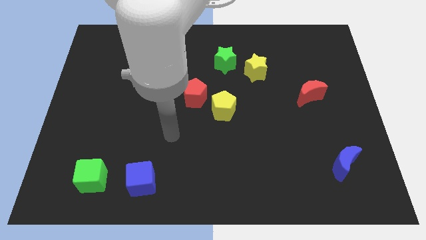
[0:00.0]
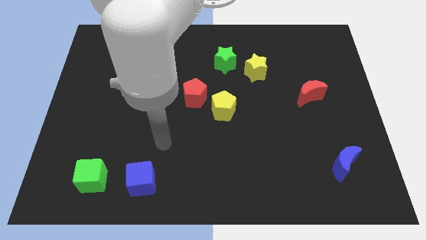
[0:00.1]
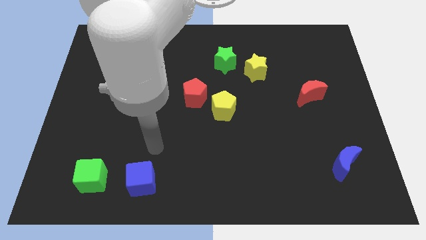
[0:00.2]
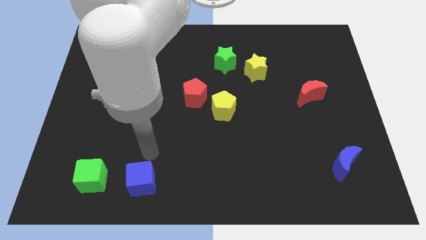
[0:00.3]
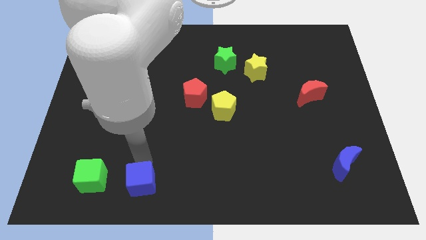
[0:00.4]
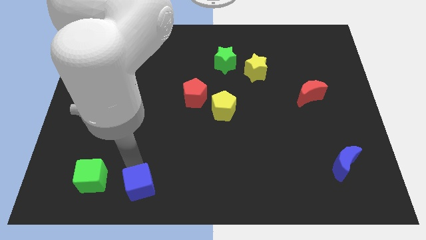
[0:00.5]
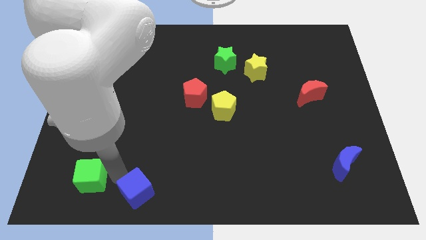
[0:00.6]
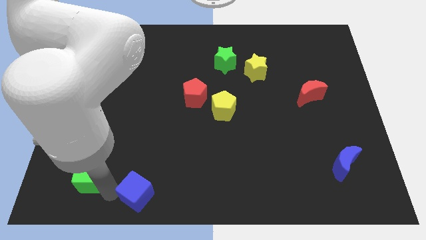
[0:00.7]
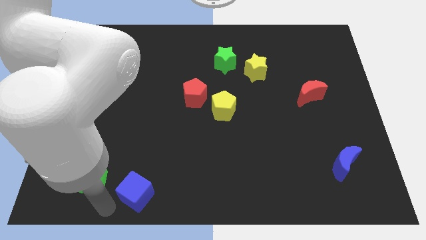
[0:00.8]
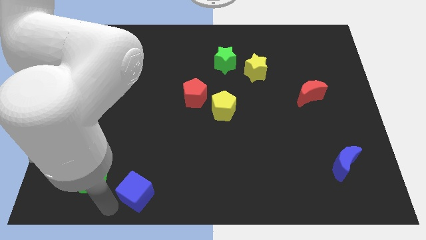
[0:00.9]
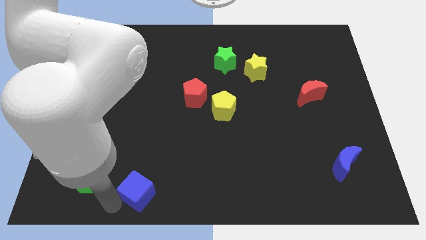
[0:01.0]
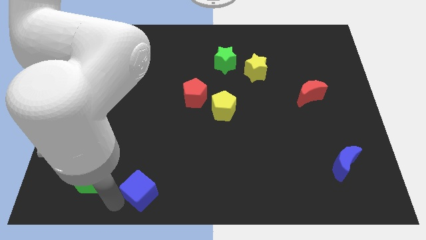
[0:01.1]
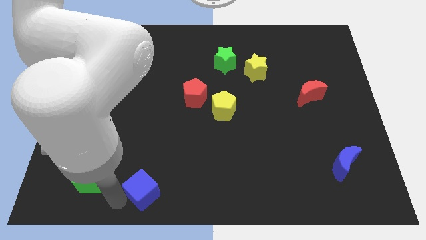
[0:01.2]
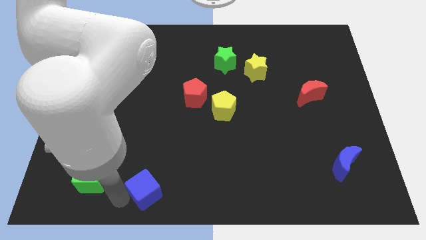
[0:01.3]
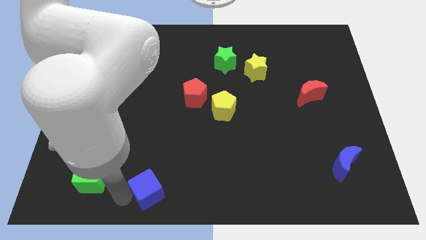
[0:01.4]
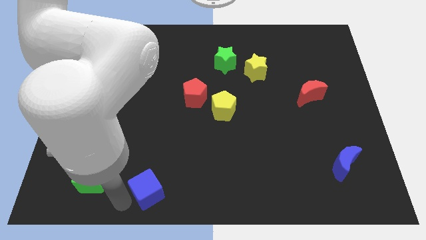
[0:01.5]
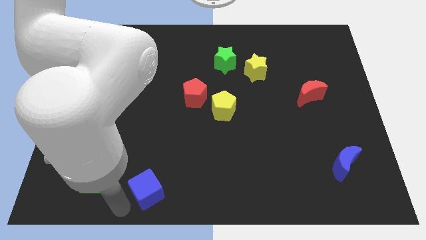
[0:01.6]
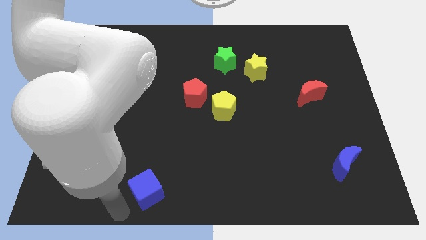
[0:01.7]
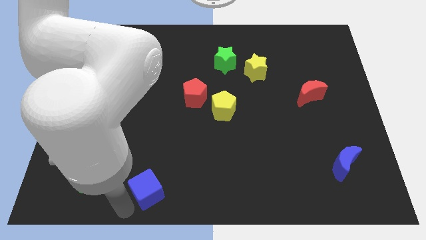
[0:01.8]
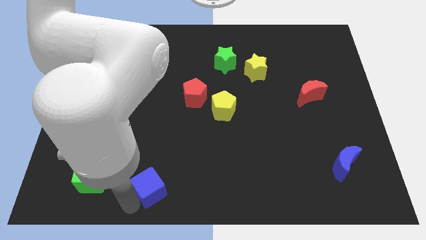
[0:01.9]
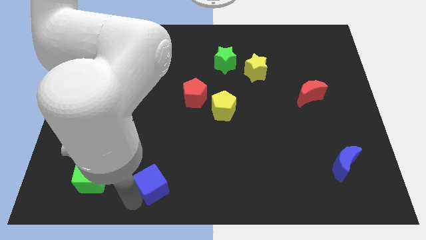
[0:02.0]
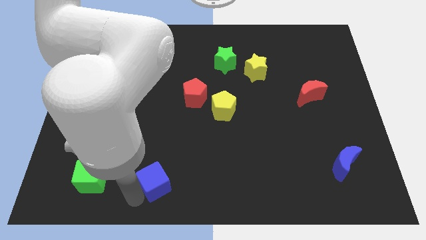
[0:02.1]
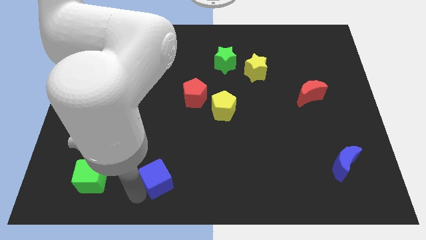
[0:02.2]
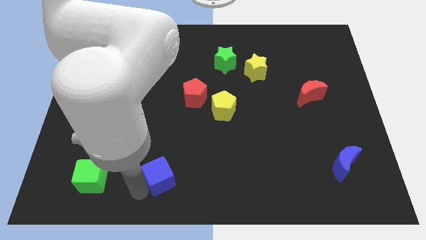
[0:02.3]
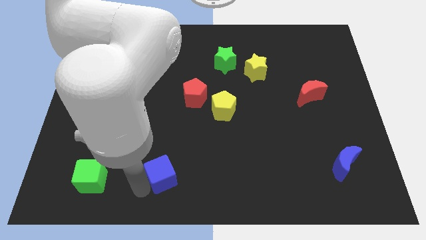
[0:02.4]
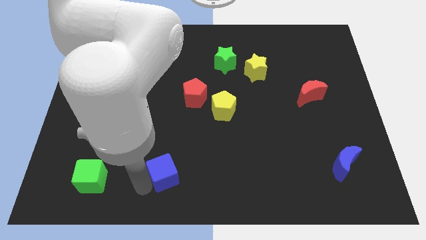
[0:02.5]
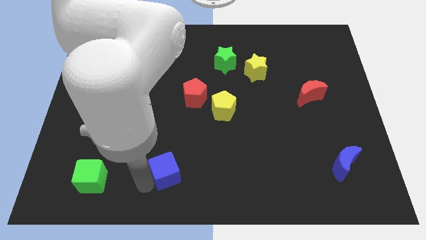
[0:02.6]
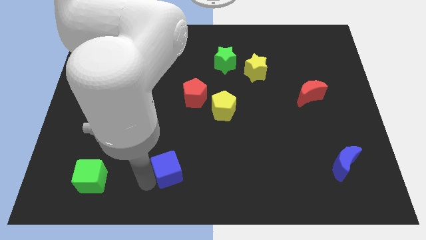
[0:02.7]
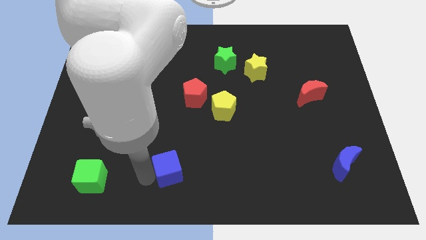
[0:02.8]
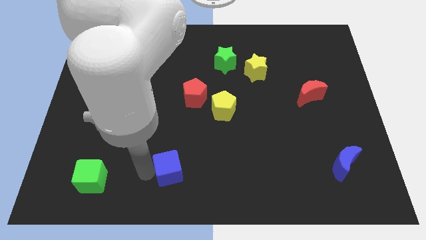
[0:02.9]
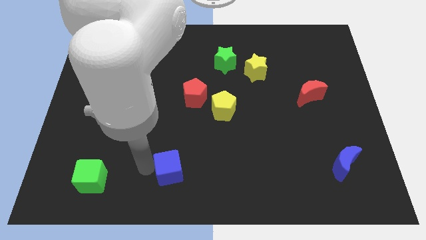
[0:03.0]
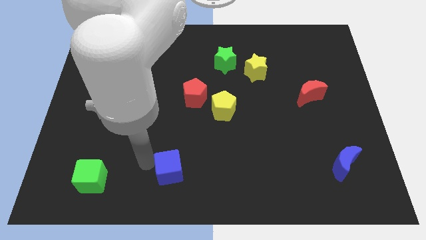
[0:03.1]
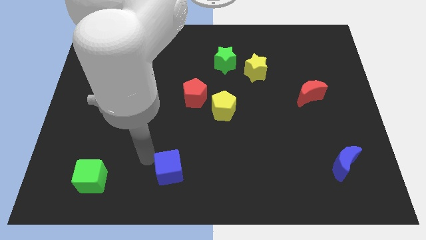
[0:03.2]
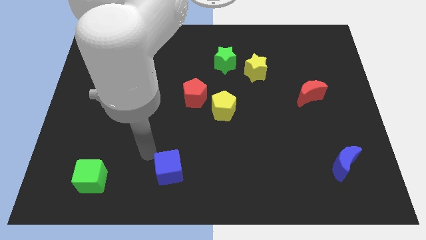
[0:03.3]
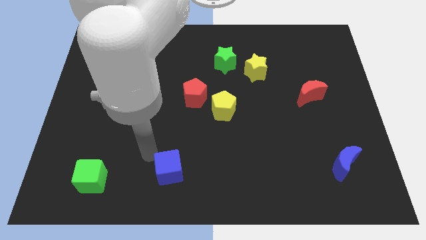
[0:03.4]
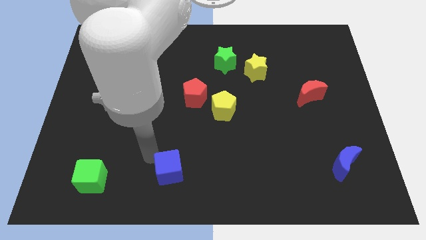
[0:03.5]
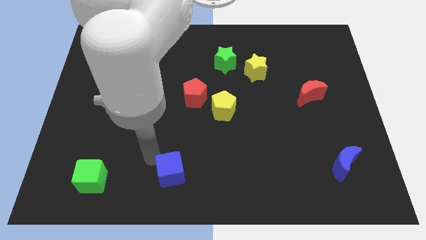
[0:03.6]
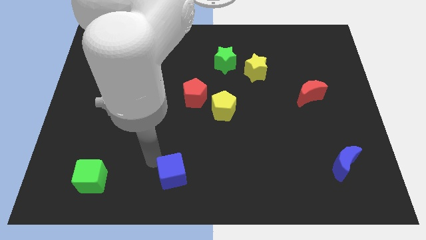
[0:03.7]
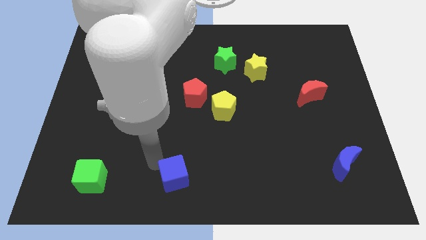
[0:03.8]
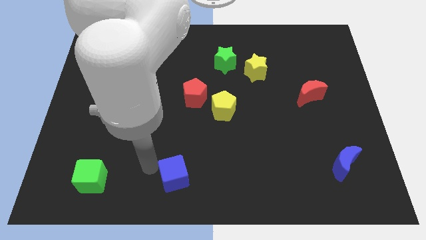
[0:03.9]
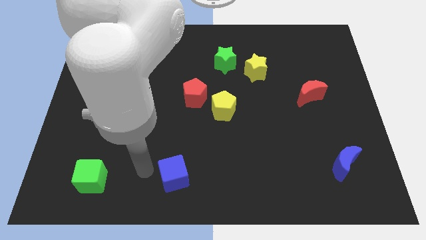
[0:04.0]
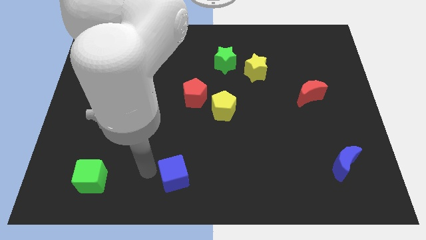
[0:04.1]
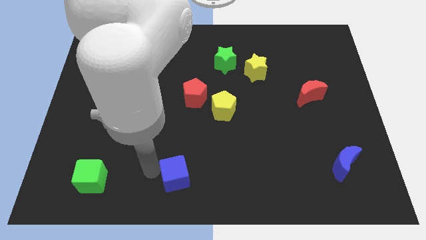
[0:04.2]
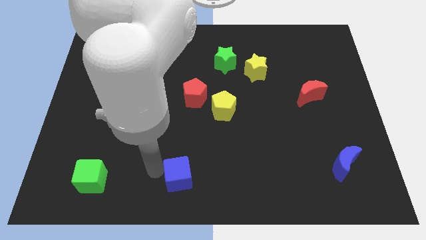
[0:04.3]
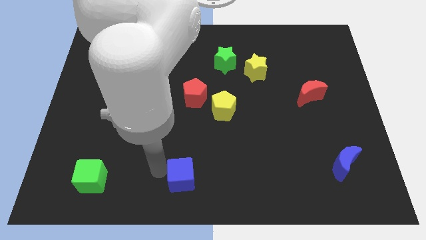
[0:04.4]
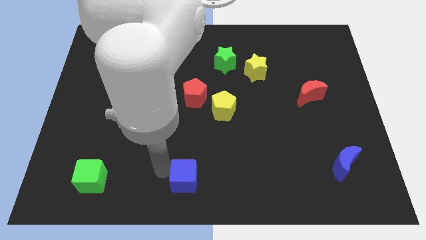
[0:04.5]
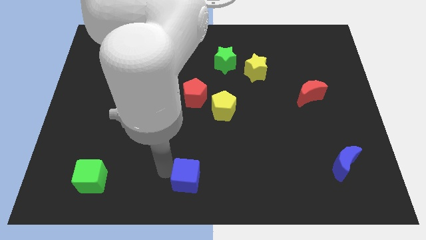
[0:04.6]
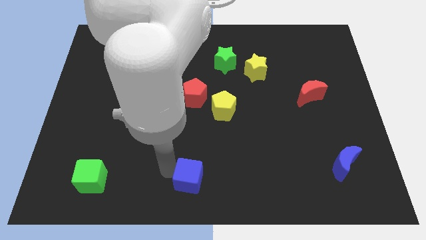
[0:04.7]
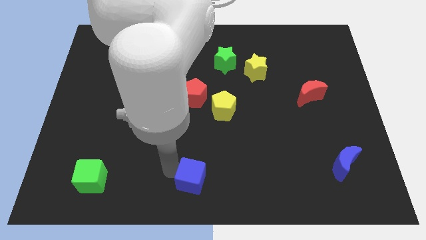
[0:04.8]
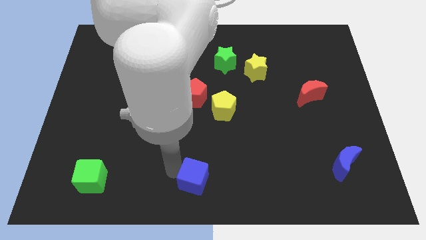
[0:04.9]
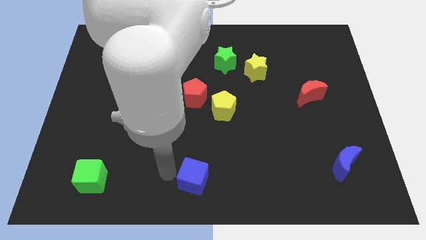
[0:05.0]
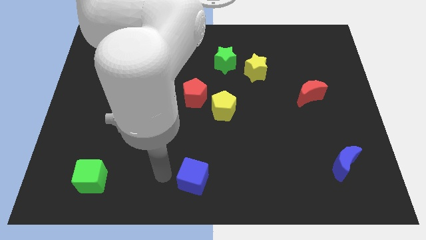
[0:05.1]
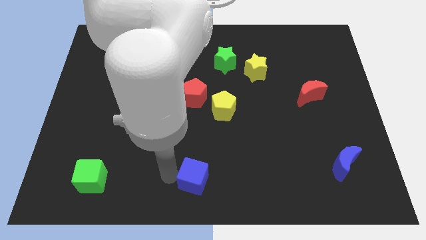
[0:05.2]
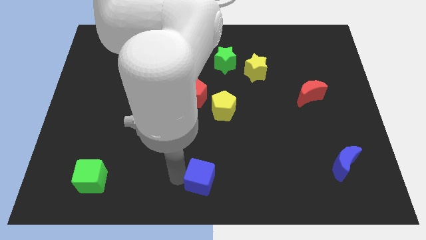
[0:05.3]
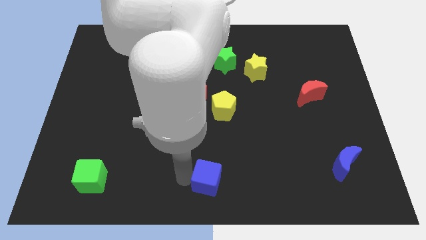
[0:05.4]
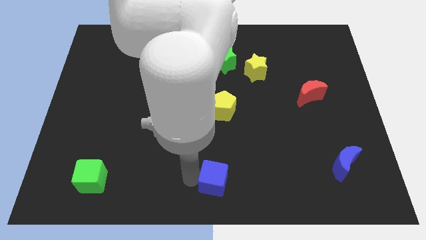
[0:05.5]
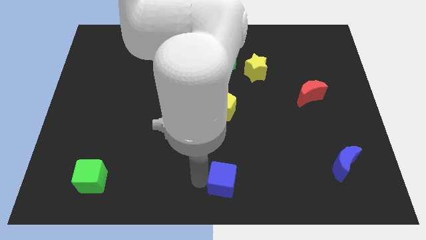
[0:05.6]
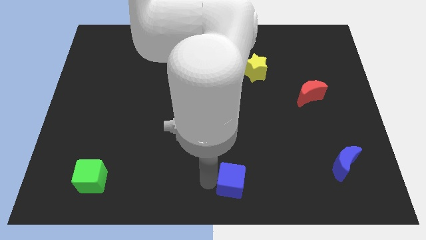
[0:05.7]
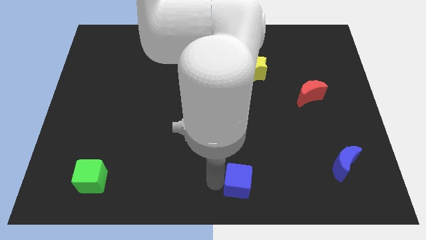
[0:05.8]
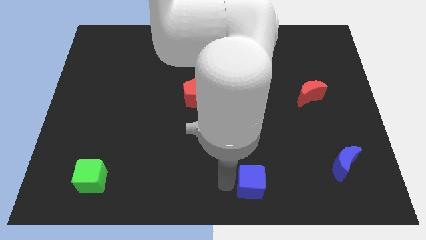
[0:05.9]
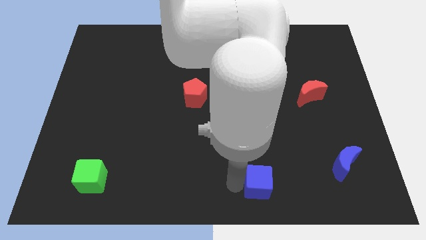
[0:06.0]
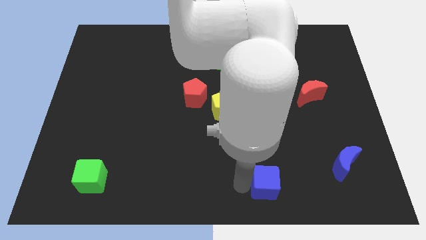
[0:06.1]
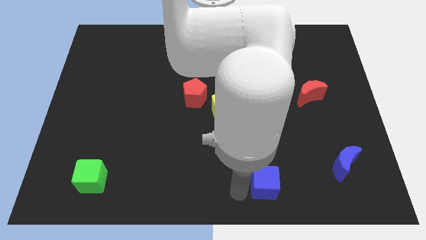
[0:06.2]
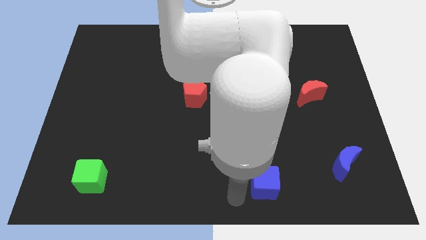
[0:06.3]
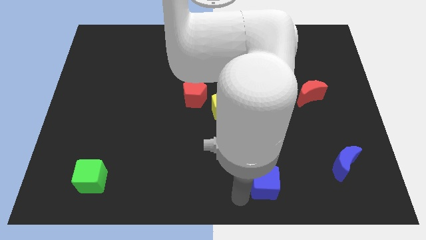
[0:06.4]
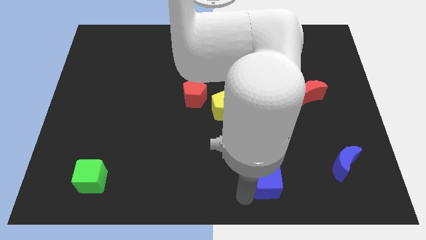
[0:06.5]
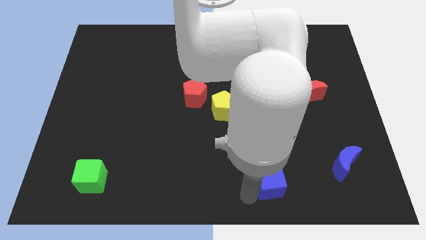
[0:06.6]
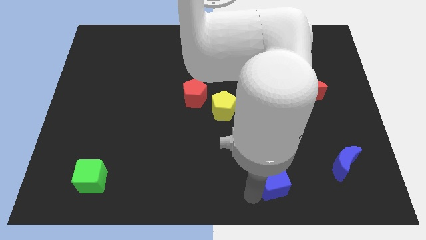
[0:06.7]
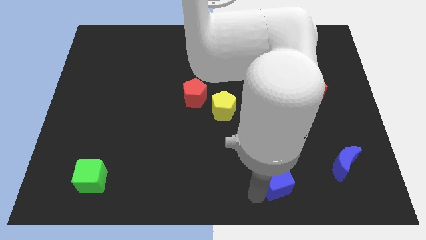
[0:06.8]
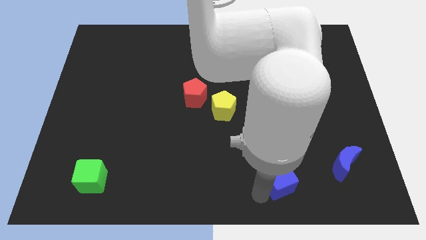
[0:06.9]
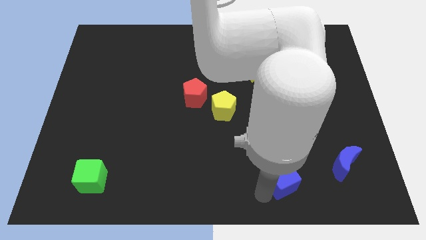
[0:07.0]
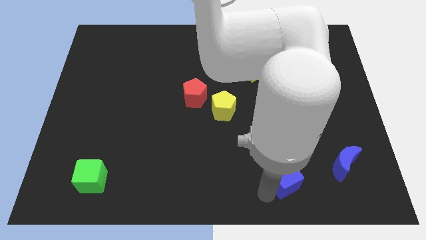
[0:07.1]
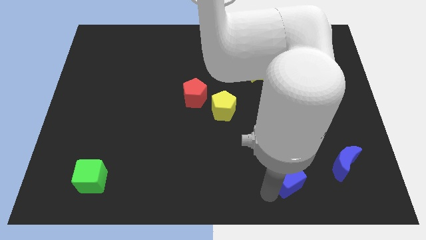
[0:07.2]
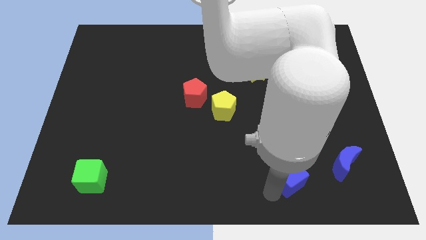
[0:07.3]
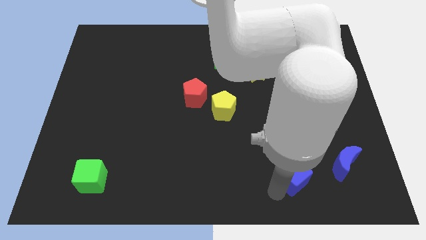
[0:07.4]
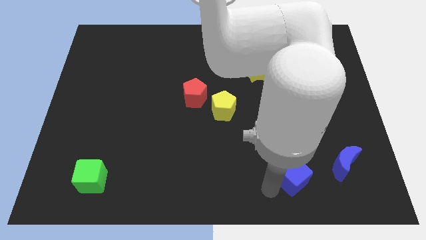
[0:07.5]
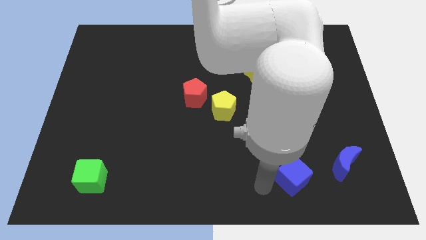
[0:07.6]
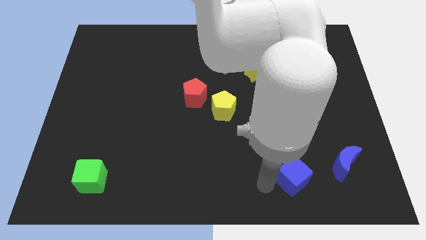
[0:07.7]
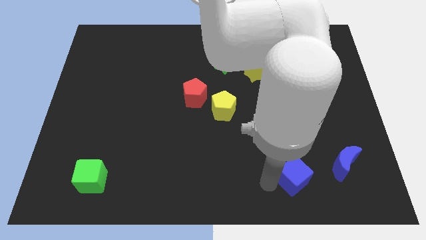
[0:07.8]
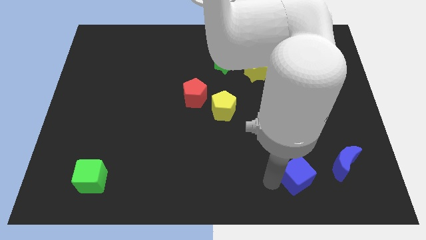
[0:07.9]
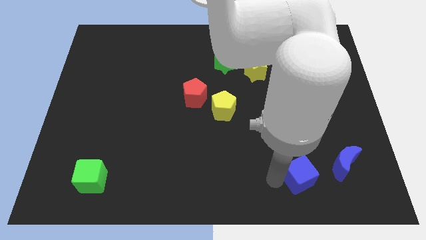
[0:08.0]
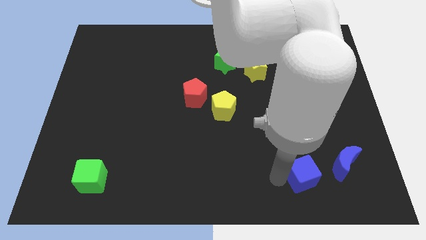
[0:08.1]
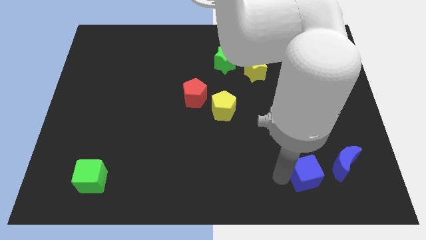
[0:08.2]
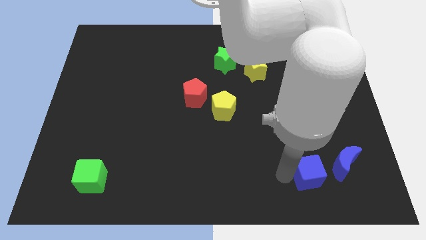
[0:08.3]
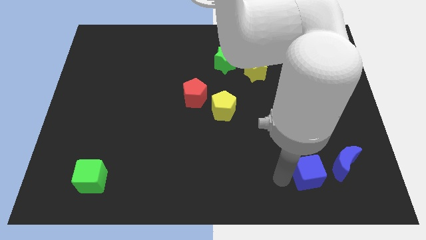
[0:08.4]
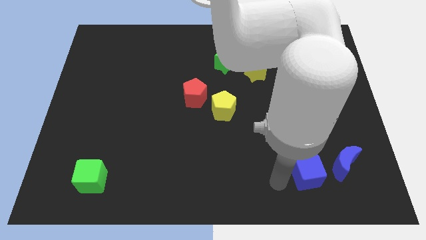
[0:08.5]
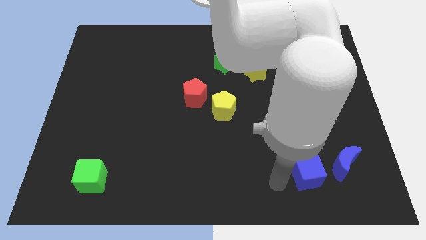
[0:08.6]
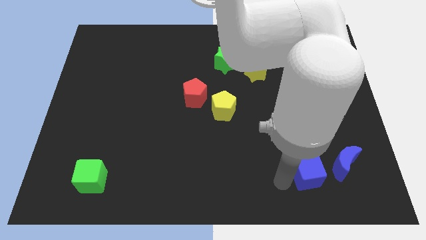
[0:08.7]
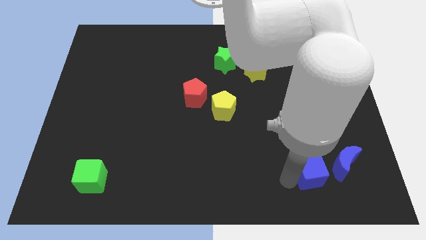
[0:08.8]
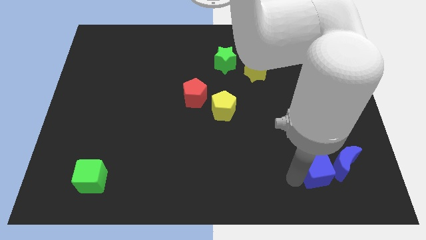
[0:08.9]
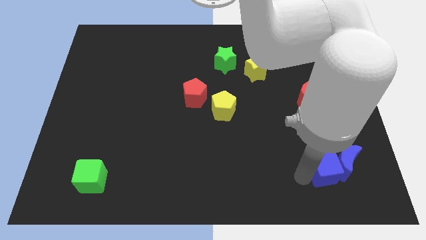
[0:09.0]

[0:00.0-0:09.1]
slide the blue cube to the blue moon
